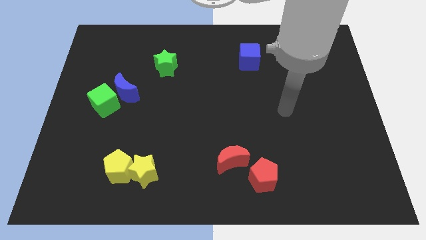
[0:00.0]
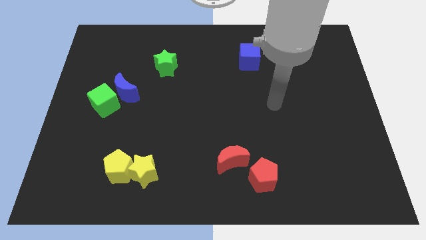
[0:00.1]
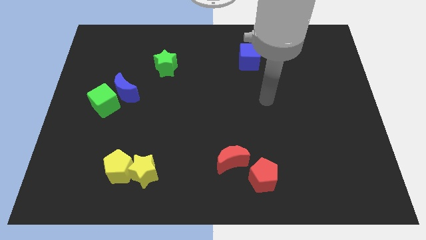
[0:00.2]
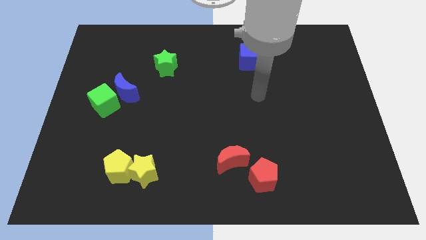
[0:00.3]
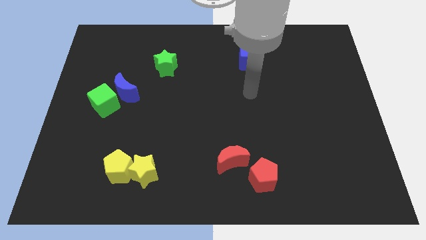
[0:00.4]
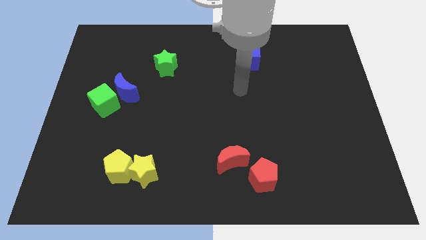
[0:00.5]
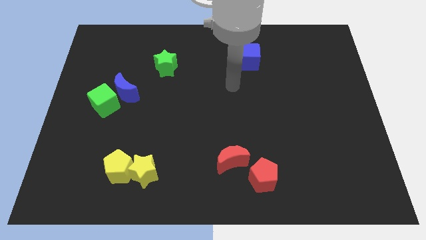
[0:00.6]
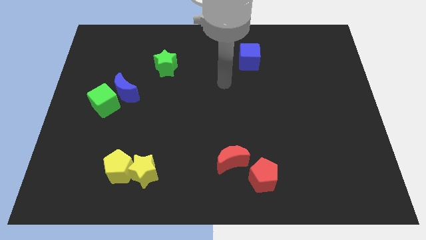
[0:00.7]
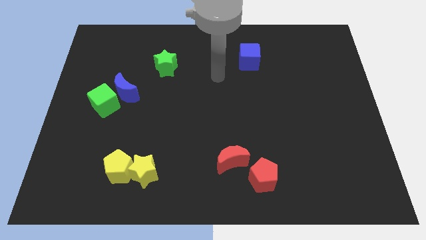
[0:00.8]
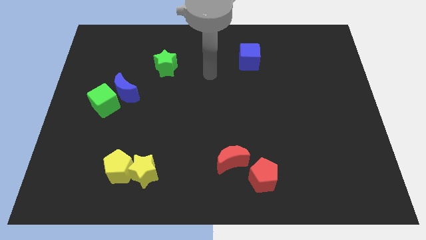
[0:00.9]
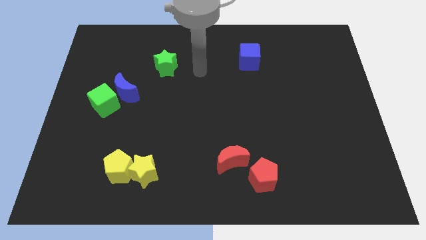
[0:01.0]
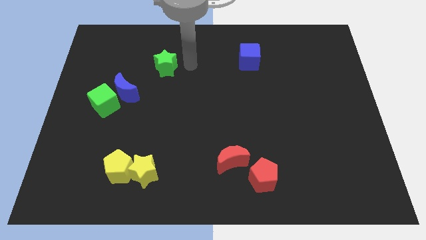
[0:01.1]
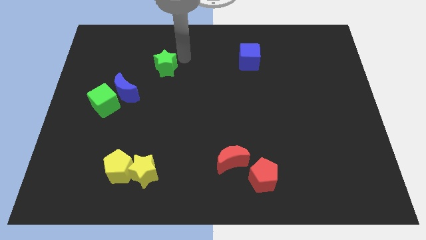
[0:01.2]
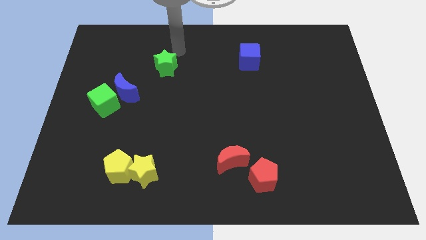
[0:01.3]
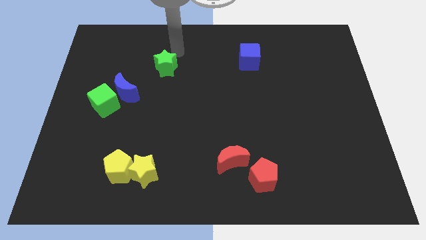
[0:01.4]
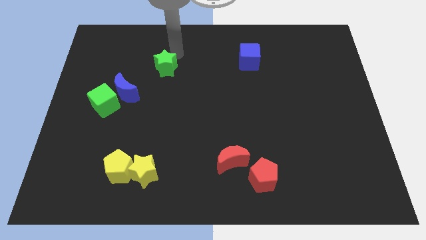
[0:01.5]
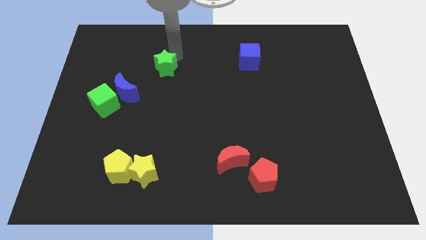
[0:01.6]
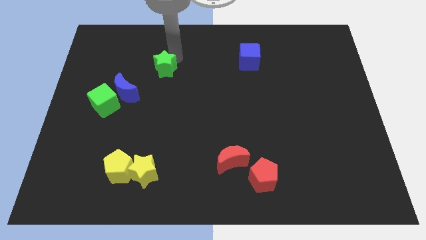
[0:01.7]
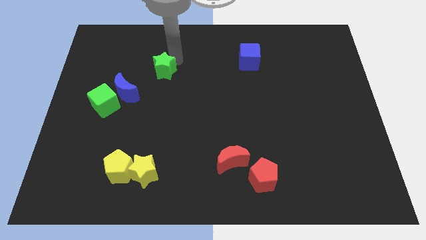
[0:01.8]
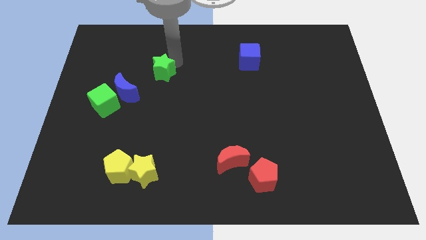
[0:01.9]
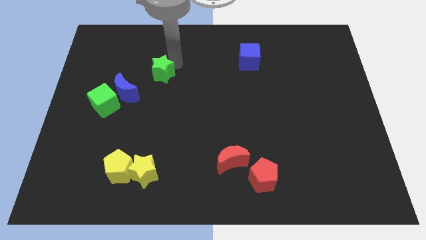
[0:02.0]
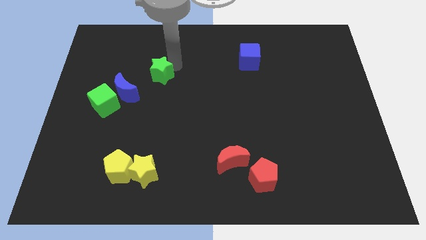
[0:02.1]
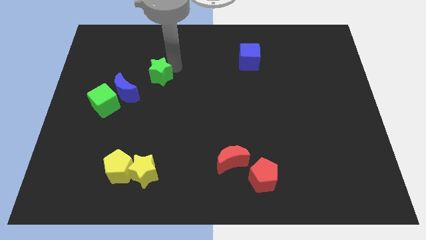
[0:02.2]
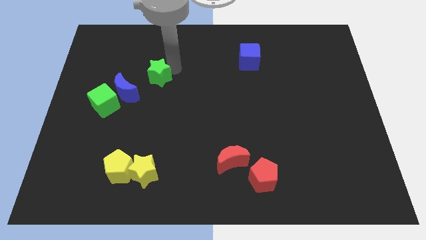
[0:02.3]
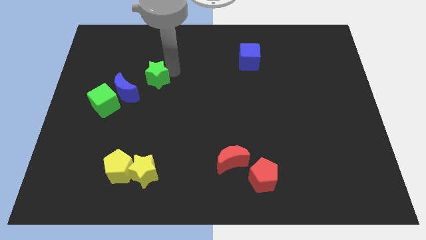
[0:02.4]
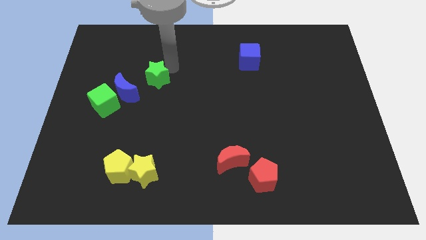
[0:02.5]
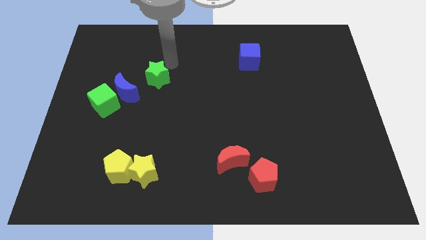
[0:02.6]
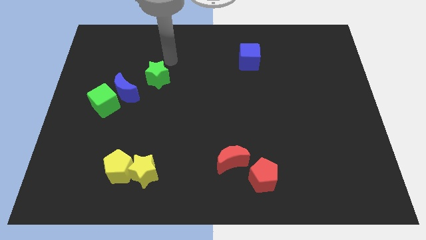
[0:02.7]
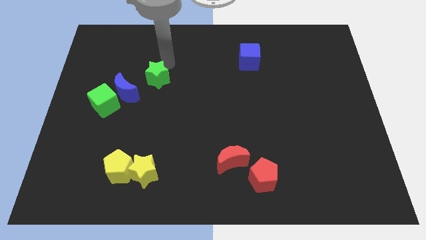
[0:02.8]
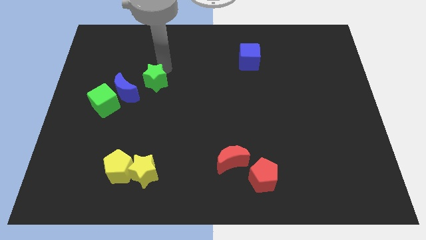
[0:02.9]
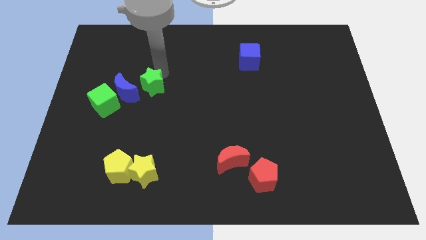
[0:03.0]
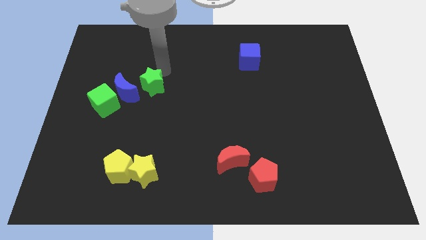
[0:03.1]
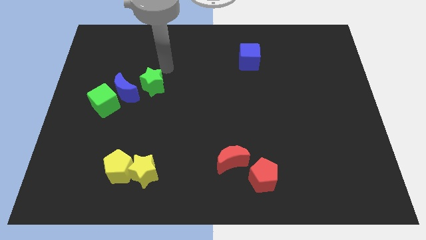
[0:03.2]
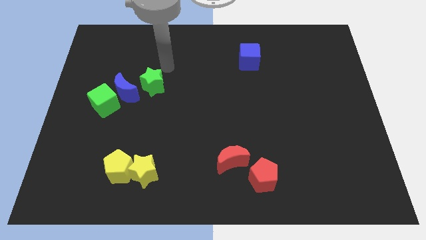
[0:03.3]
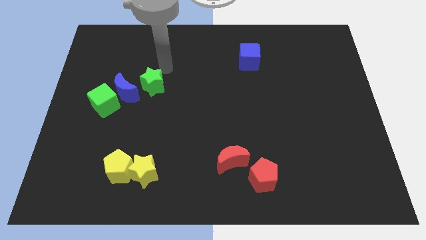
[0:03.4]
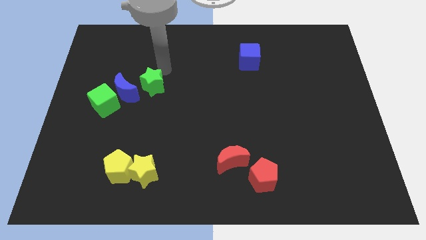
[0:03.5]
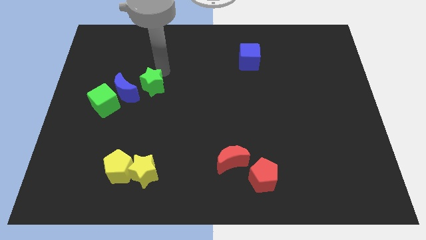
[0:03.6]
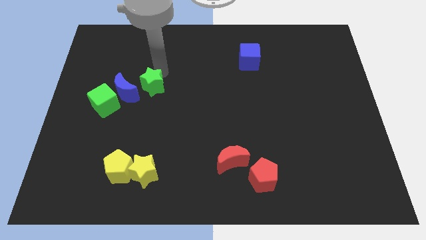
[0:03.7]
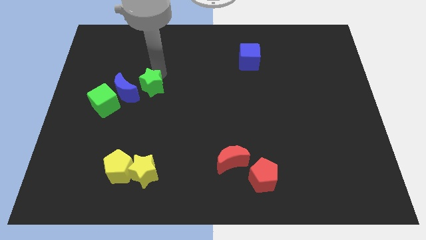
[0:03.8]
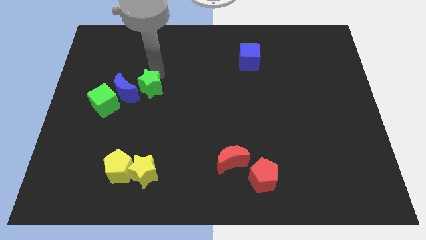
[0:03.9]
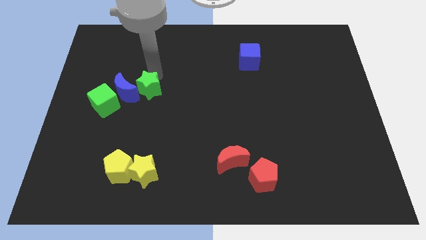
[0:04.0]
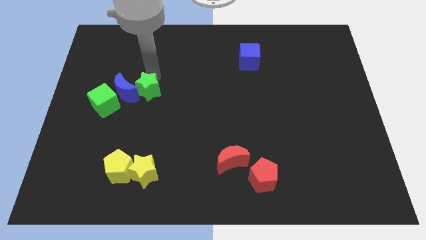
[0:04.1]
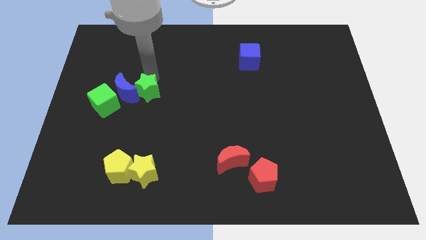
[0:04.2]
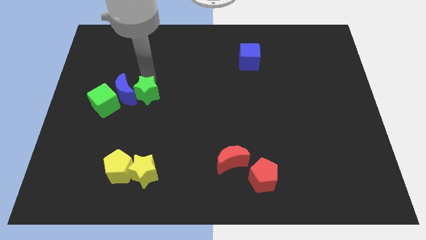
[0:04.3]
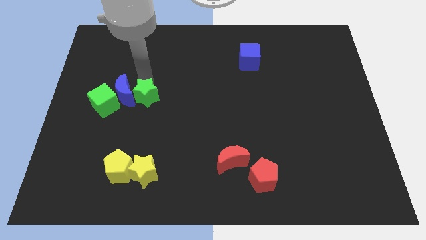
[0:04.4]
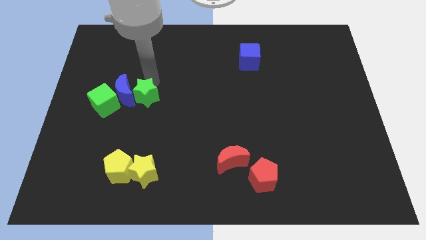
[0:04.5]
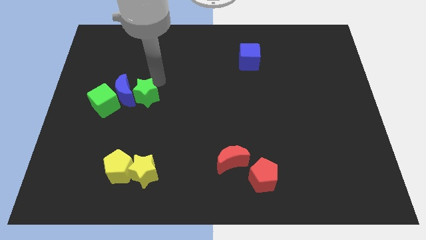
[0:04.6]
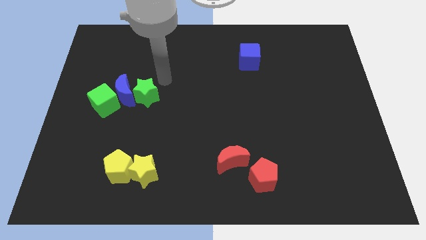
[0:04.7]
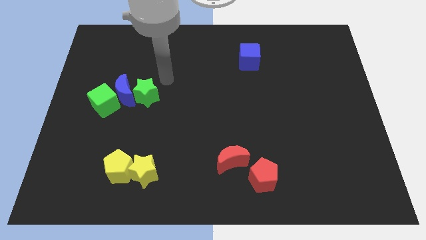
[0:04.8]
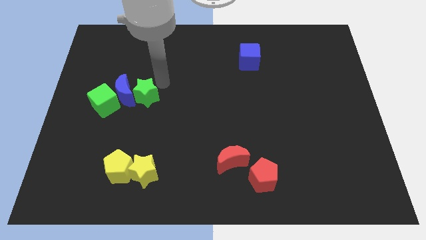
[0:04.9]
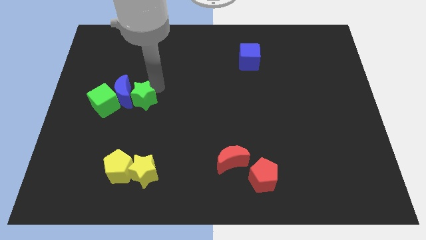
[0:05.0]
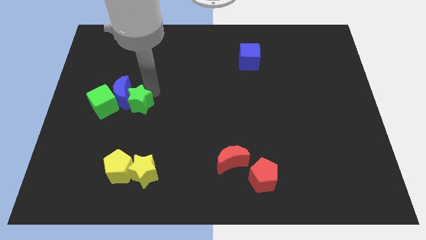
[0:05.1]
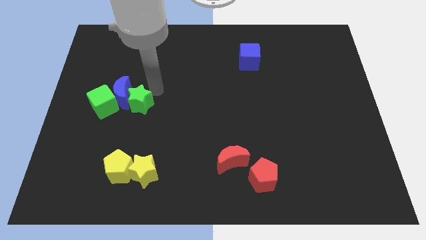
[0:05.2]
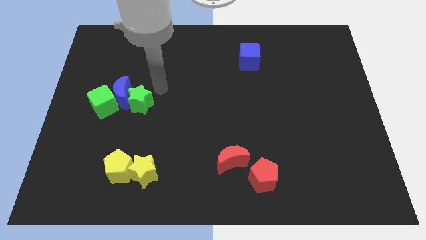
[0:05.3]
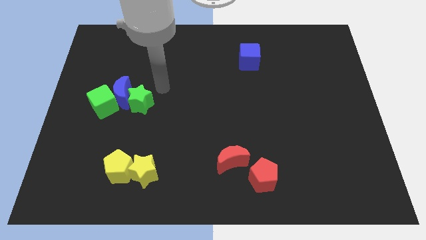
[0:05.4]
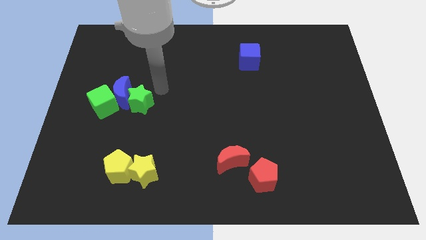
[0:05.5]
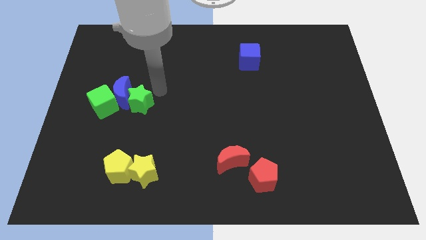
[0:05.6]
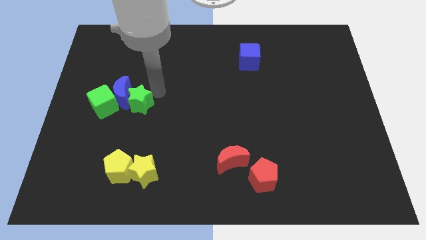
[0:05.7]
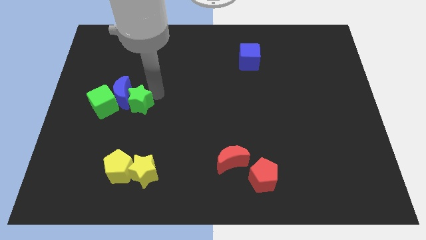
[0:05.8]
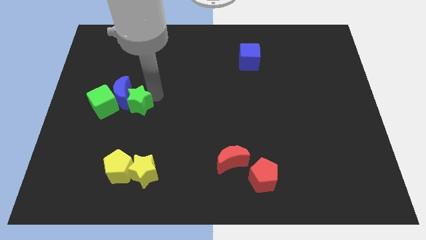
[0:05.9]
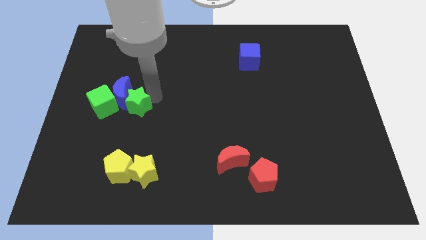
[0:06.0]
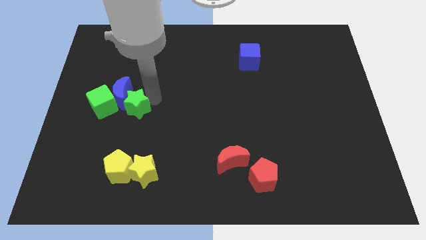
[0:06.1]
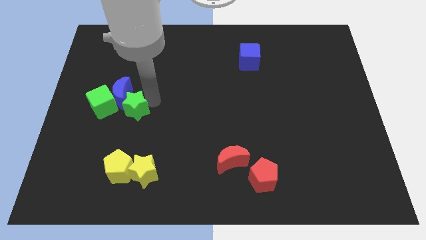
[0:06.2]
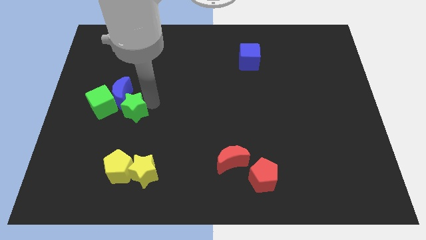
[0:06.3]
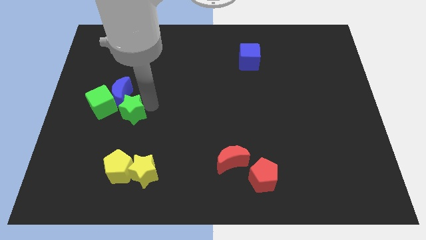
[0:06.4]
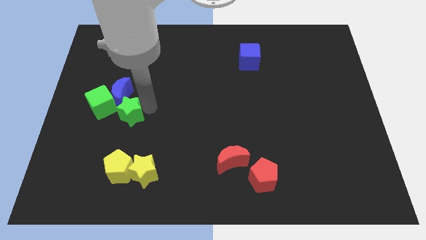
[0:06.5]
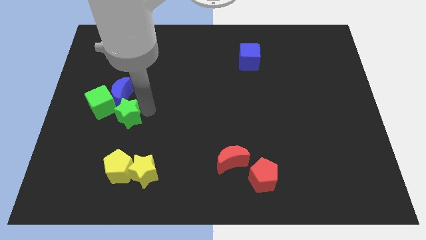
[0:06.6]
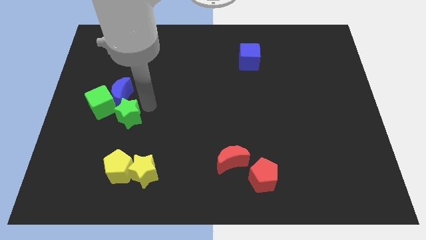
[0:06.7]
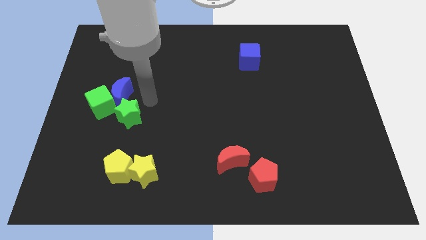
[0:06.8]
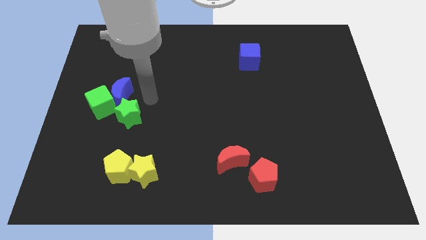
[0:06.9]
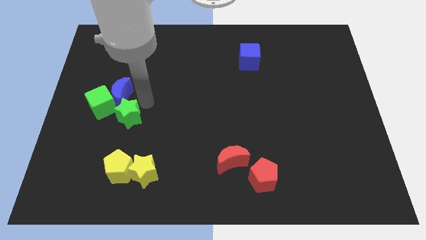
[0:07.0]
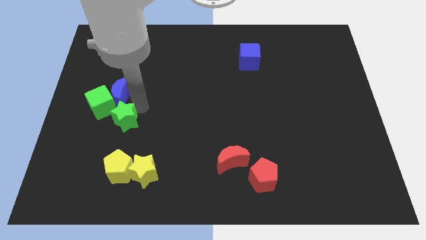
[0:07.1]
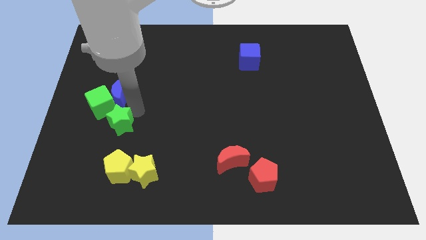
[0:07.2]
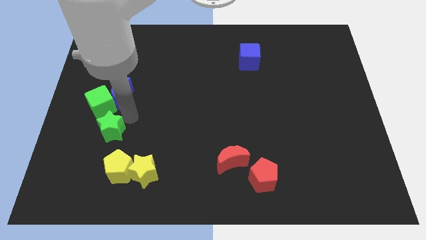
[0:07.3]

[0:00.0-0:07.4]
slide the green star to the bottom side of the green cube
